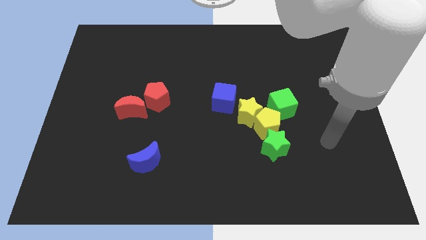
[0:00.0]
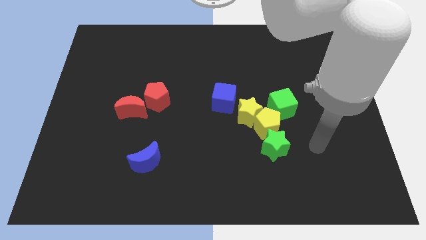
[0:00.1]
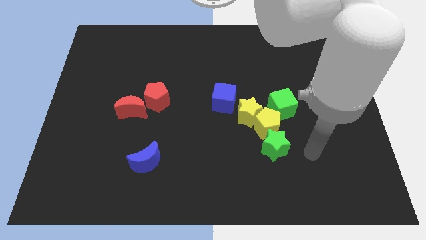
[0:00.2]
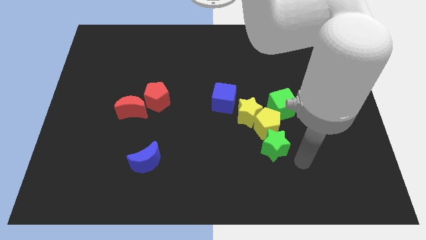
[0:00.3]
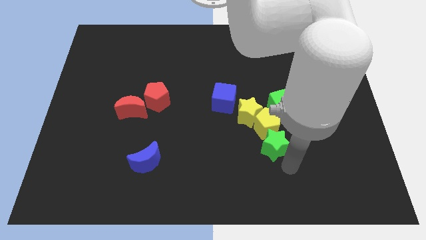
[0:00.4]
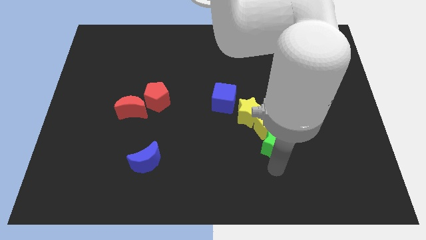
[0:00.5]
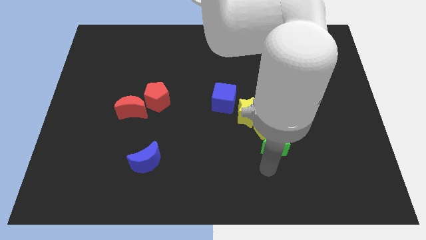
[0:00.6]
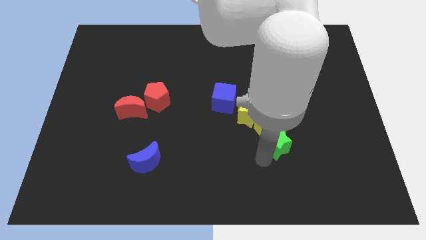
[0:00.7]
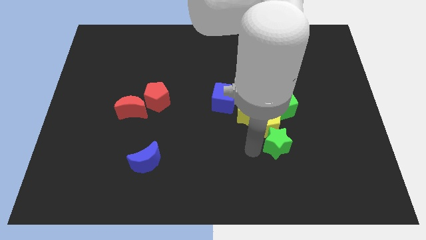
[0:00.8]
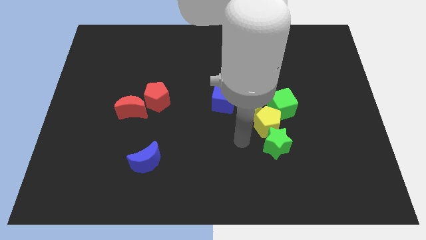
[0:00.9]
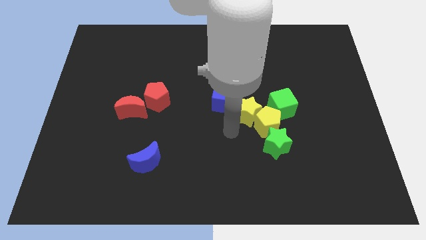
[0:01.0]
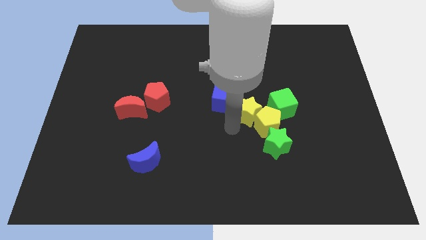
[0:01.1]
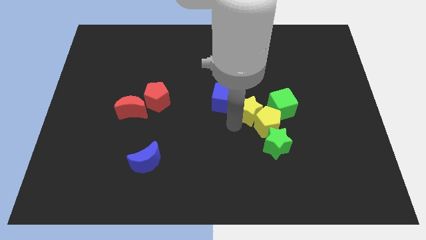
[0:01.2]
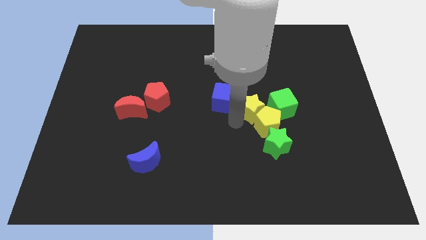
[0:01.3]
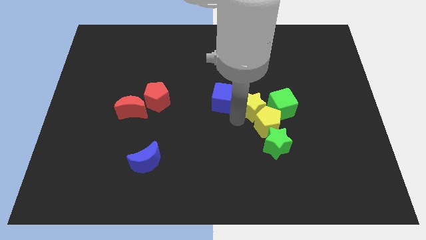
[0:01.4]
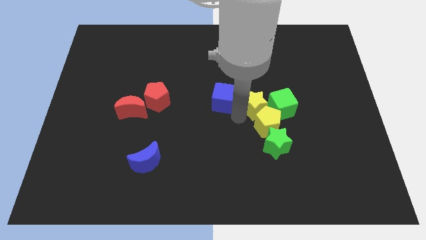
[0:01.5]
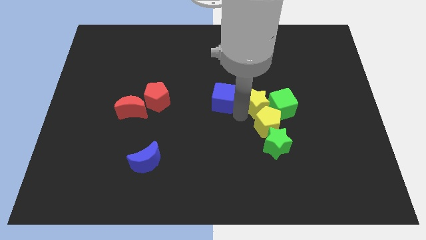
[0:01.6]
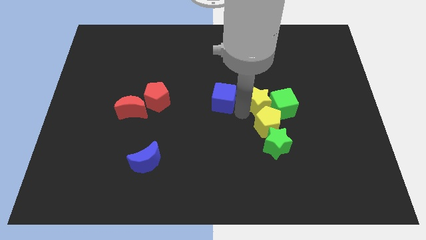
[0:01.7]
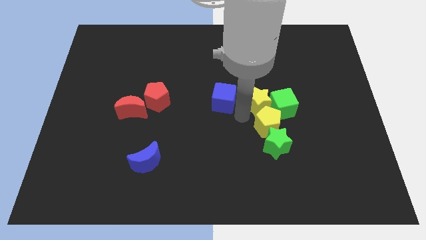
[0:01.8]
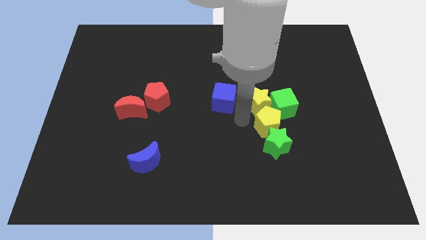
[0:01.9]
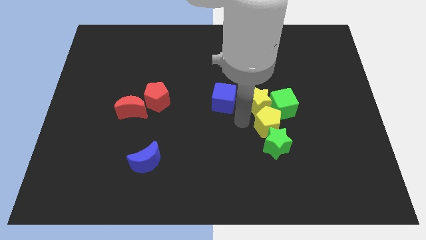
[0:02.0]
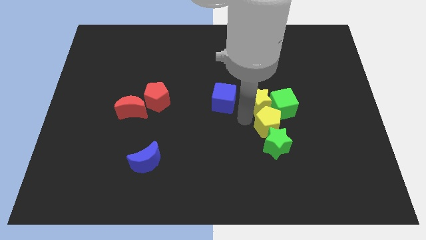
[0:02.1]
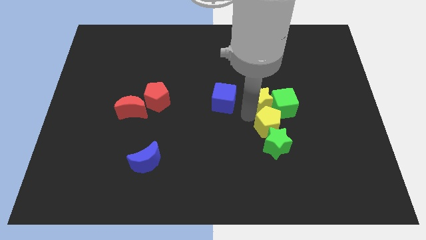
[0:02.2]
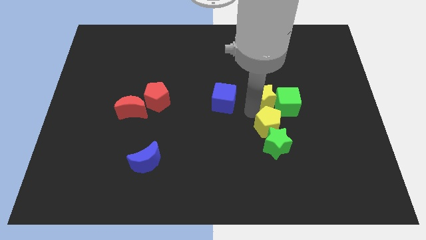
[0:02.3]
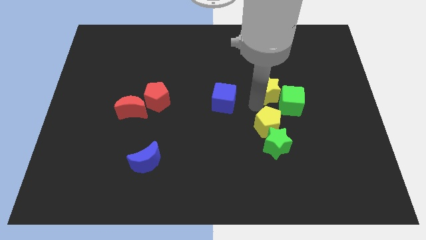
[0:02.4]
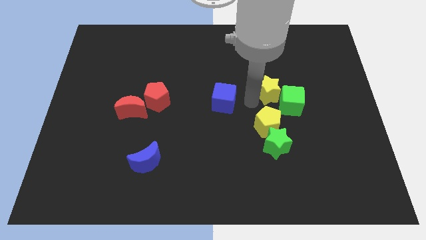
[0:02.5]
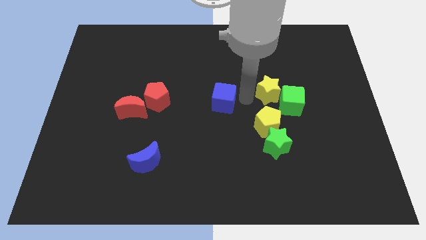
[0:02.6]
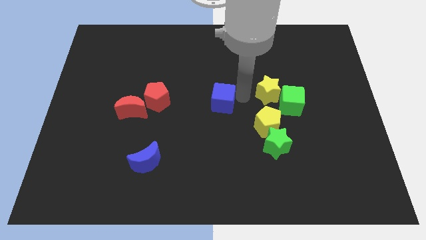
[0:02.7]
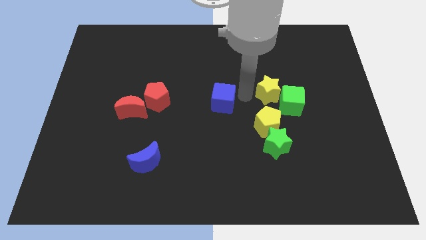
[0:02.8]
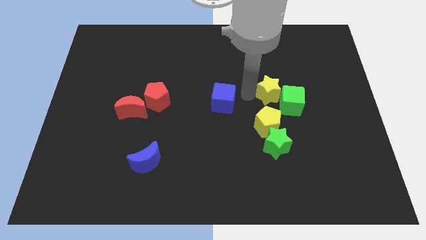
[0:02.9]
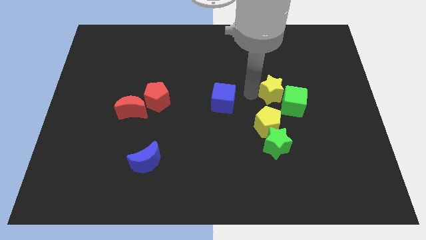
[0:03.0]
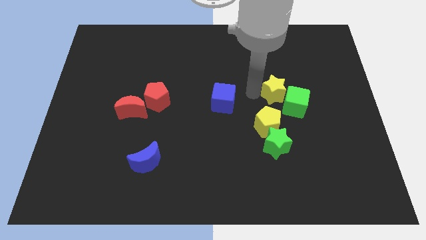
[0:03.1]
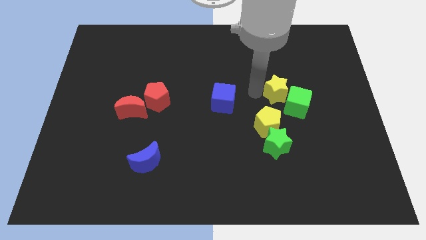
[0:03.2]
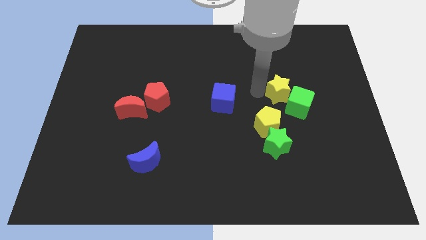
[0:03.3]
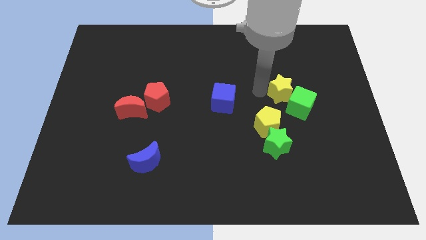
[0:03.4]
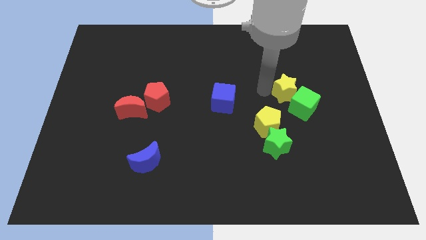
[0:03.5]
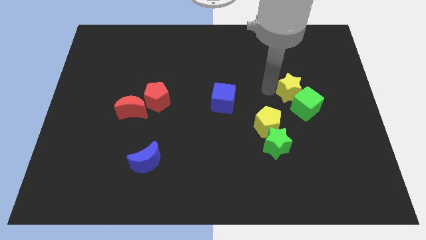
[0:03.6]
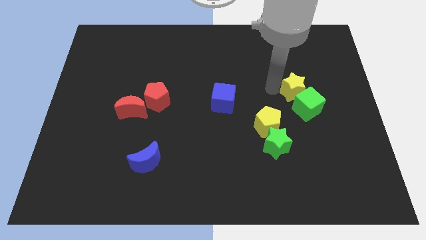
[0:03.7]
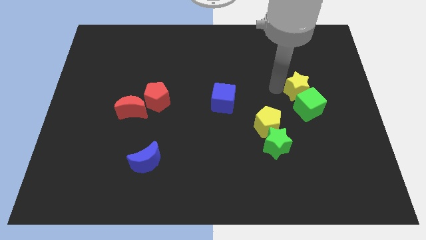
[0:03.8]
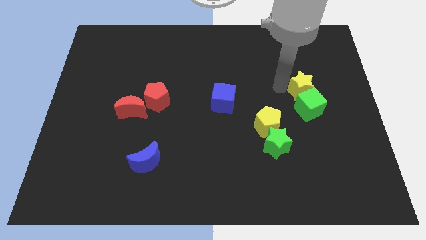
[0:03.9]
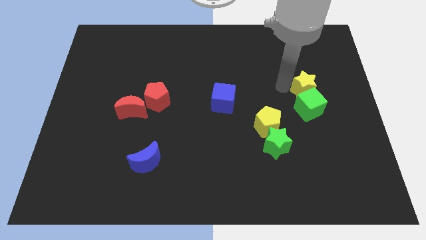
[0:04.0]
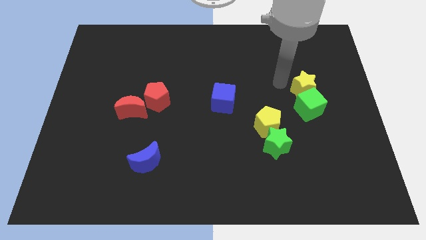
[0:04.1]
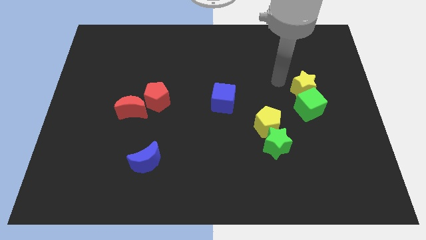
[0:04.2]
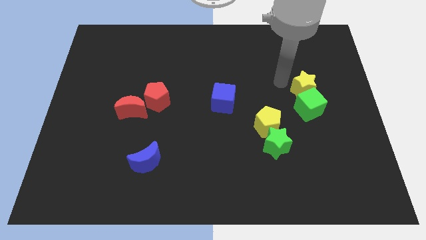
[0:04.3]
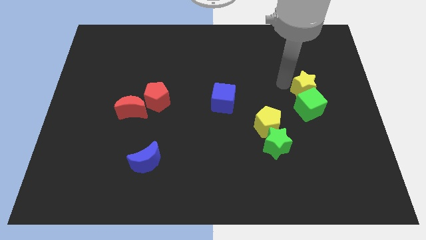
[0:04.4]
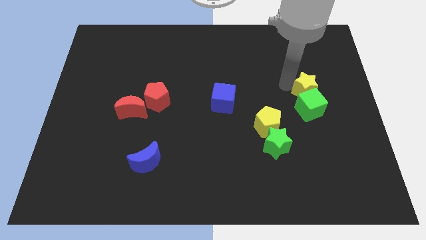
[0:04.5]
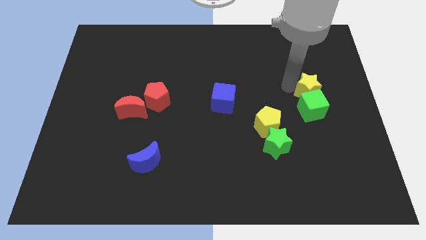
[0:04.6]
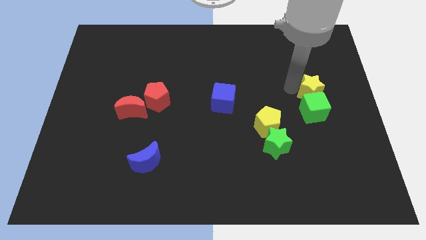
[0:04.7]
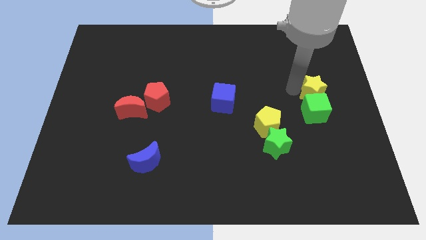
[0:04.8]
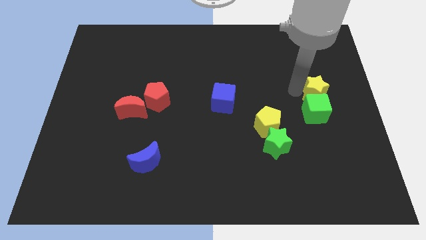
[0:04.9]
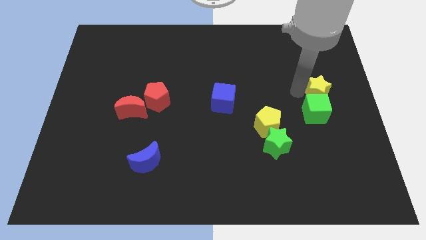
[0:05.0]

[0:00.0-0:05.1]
move the yellow star to the right side

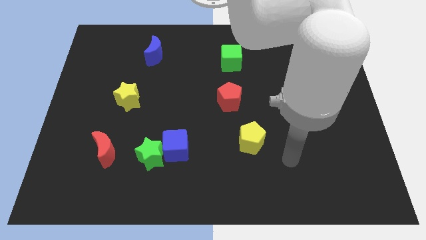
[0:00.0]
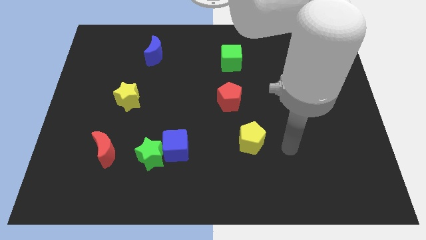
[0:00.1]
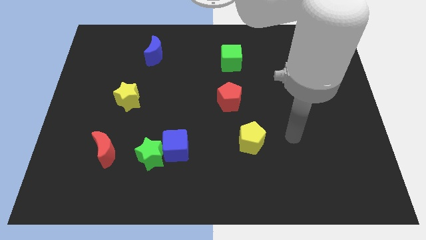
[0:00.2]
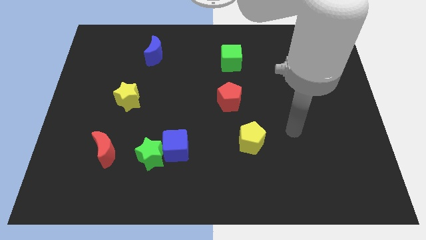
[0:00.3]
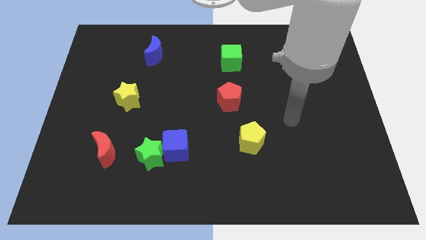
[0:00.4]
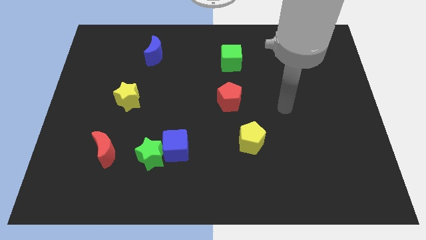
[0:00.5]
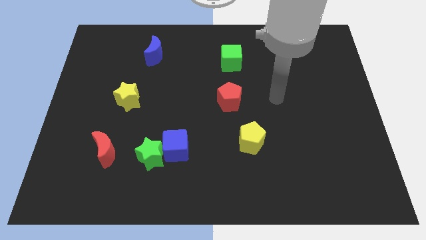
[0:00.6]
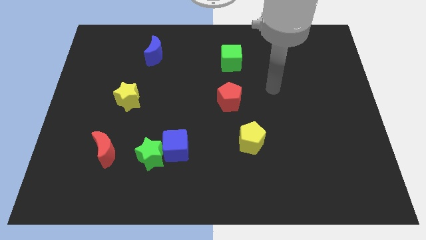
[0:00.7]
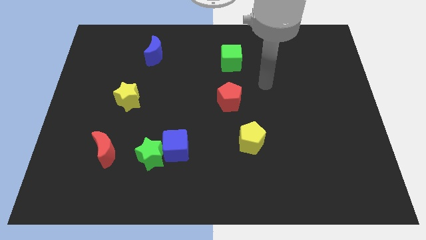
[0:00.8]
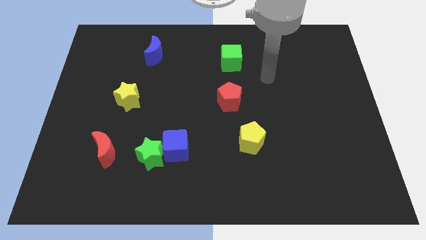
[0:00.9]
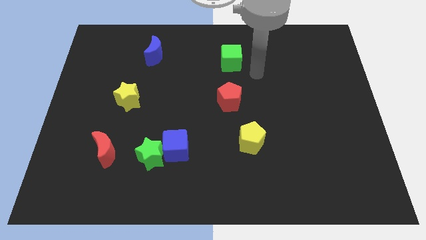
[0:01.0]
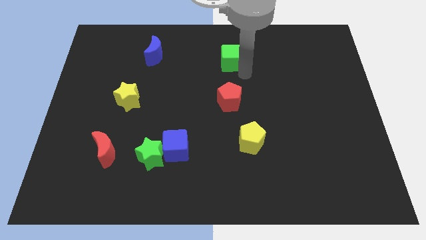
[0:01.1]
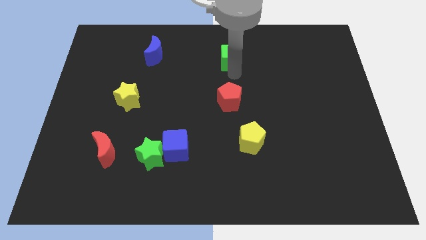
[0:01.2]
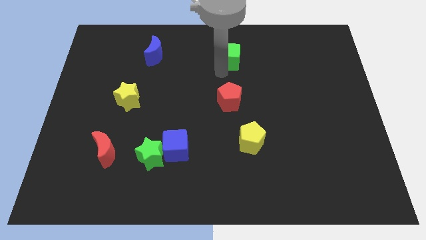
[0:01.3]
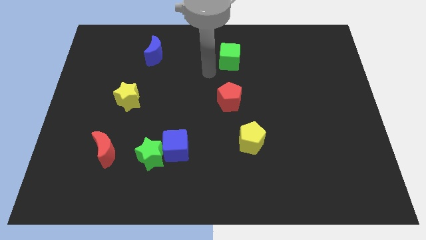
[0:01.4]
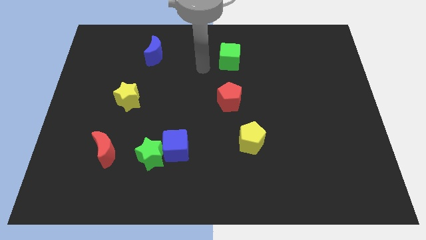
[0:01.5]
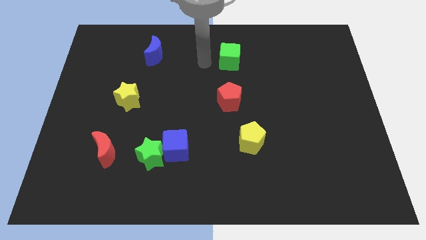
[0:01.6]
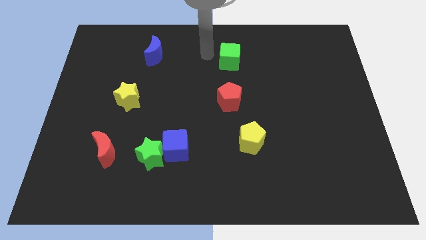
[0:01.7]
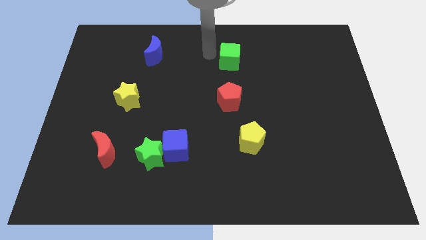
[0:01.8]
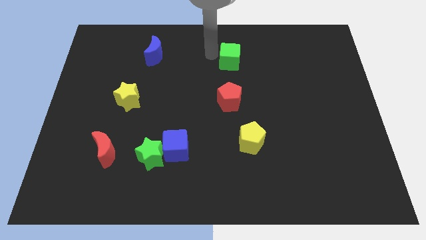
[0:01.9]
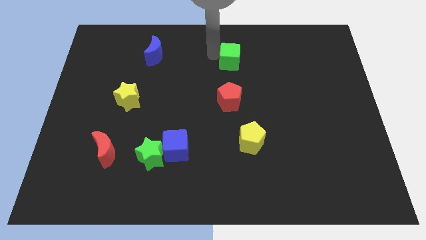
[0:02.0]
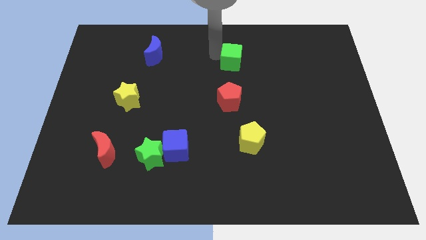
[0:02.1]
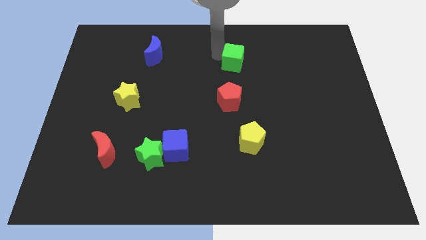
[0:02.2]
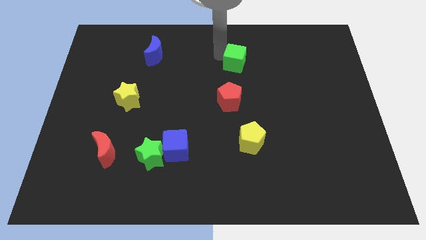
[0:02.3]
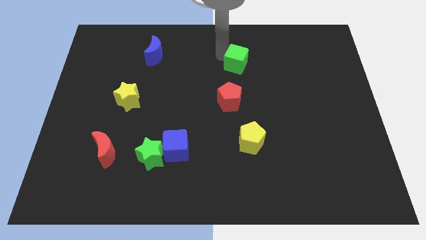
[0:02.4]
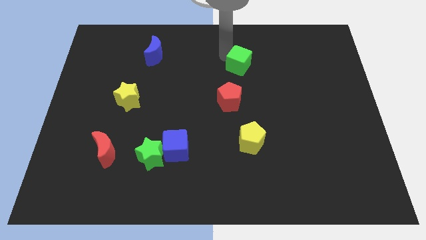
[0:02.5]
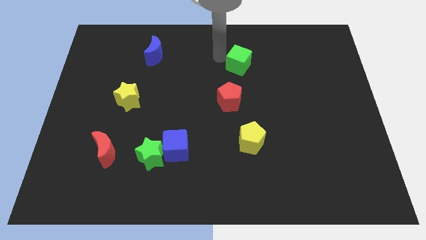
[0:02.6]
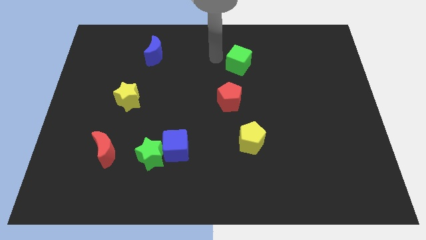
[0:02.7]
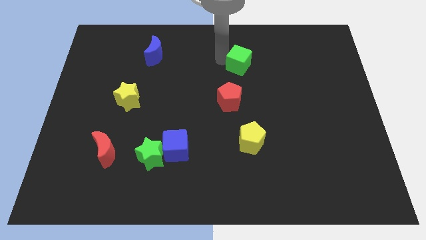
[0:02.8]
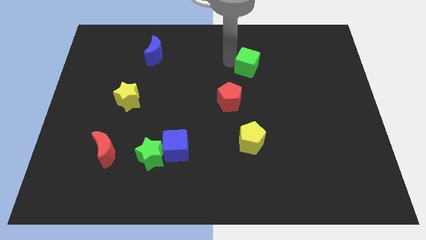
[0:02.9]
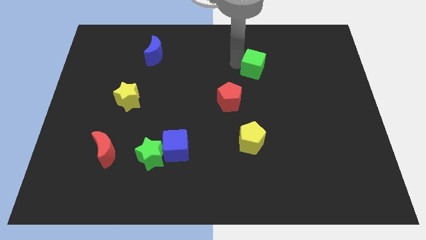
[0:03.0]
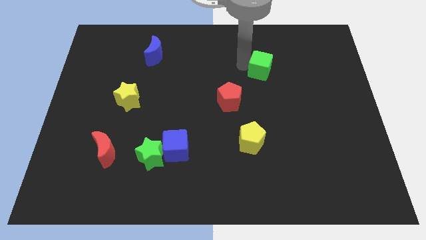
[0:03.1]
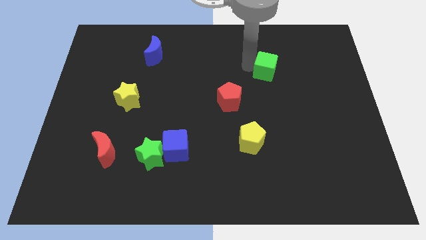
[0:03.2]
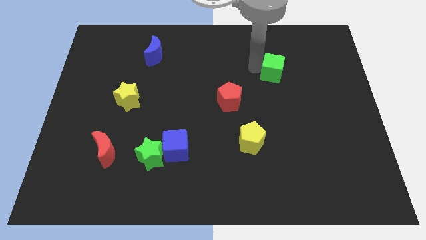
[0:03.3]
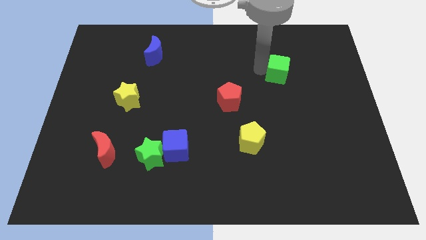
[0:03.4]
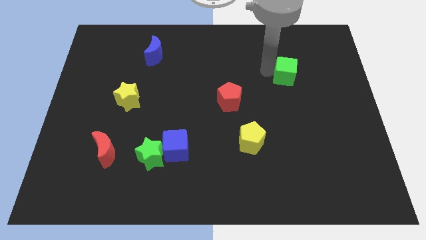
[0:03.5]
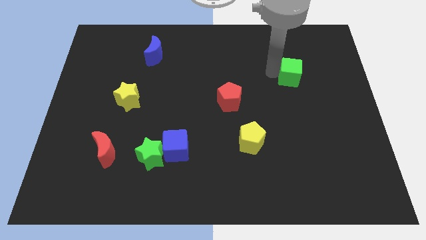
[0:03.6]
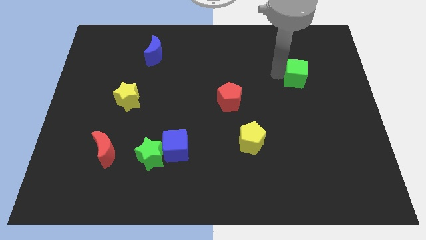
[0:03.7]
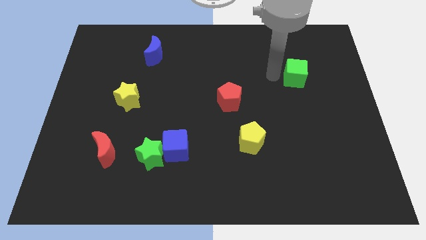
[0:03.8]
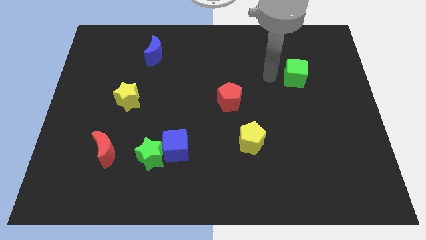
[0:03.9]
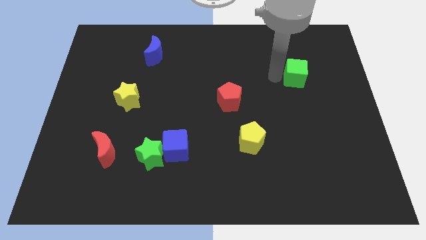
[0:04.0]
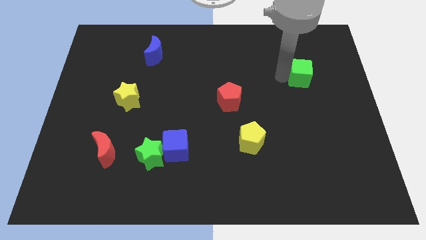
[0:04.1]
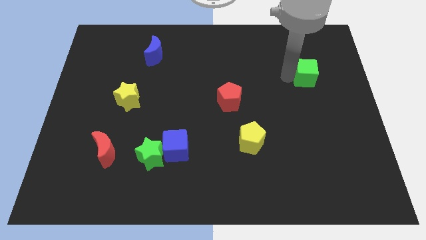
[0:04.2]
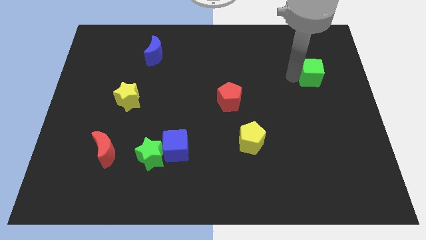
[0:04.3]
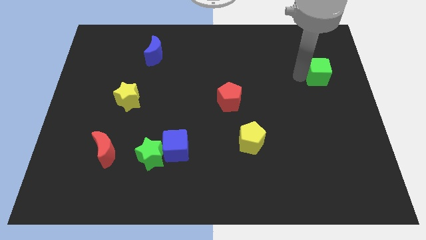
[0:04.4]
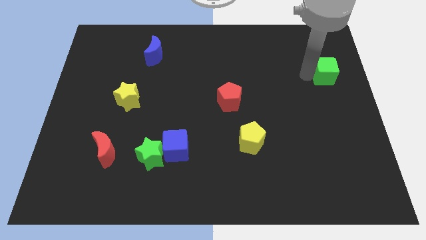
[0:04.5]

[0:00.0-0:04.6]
push the green cube to the right side of the board
